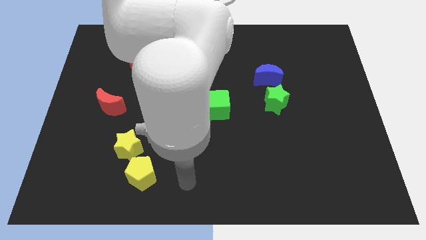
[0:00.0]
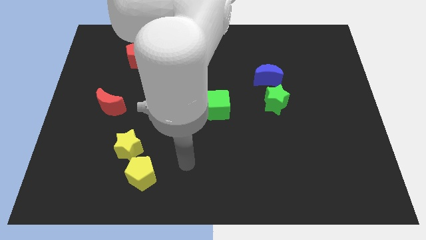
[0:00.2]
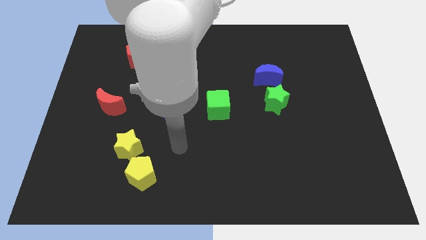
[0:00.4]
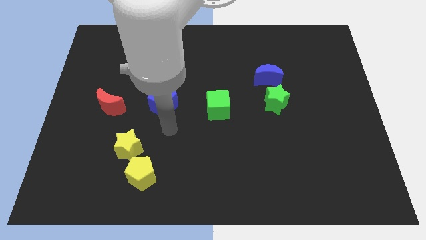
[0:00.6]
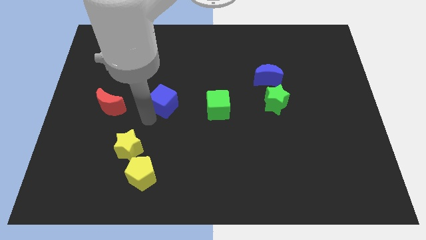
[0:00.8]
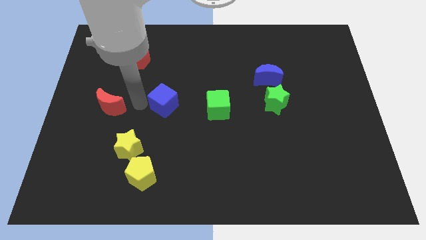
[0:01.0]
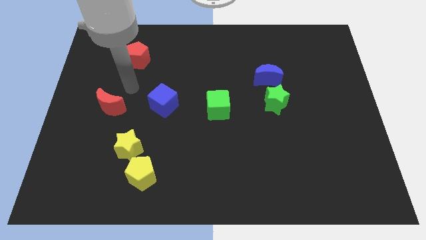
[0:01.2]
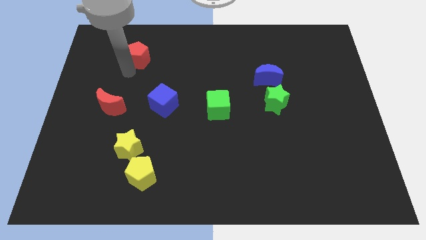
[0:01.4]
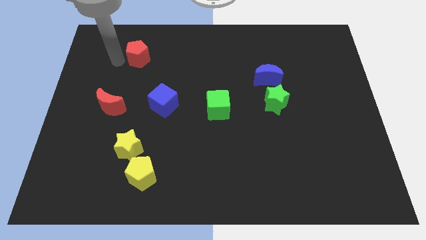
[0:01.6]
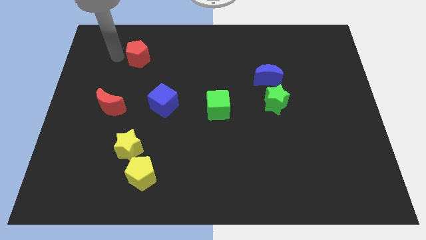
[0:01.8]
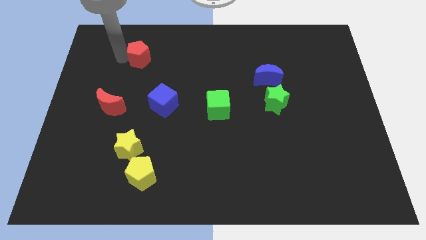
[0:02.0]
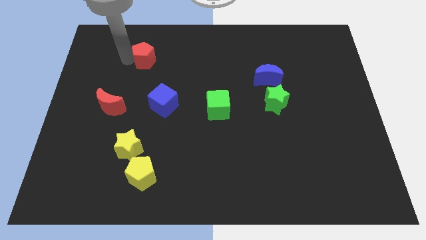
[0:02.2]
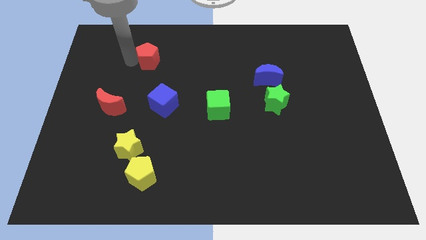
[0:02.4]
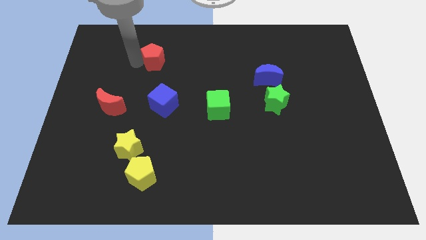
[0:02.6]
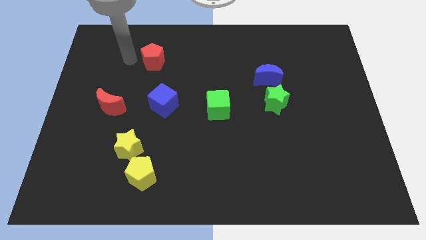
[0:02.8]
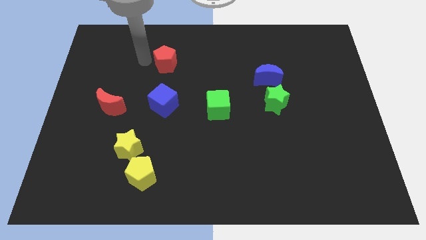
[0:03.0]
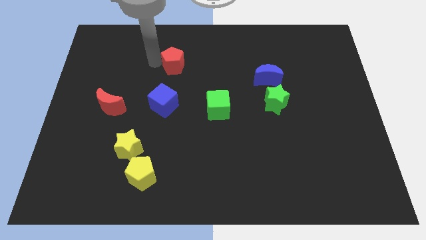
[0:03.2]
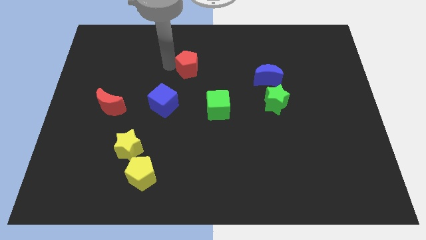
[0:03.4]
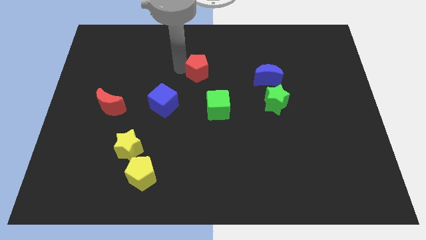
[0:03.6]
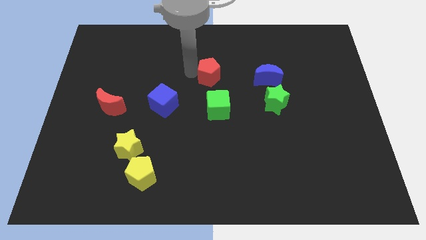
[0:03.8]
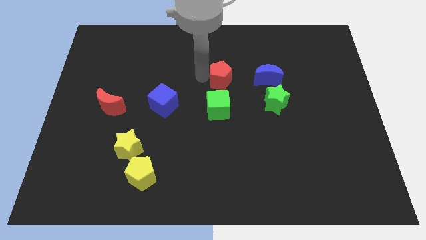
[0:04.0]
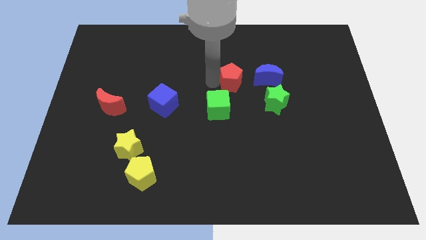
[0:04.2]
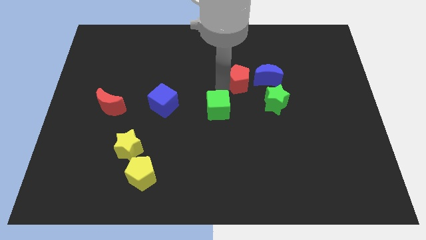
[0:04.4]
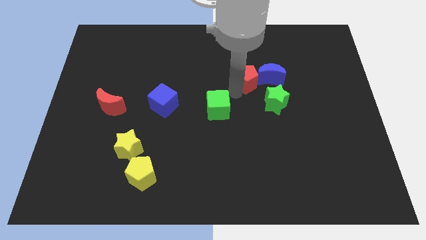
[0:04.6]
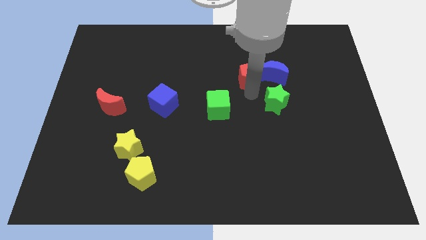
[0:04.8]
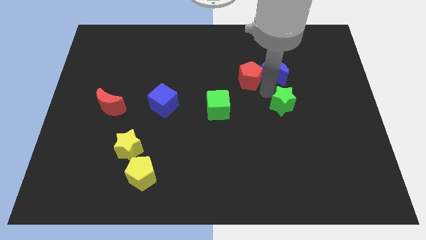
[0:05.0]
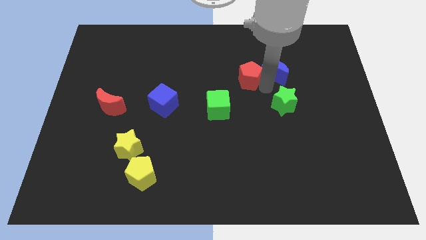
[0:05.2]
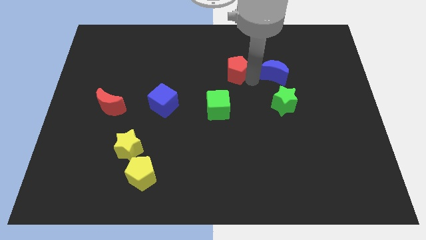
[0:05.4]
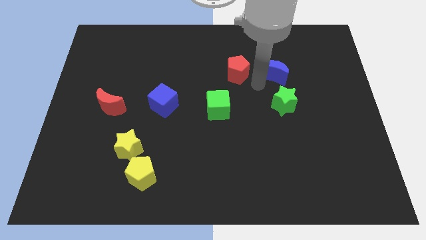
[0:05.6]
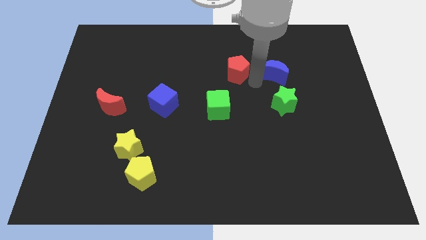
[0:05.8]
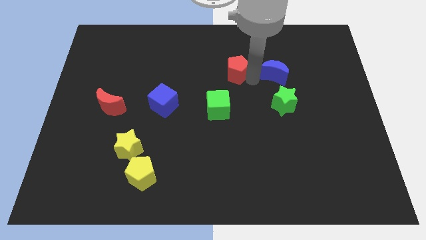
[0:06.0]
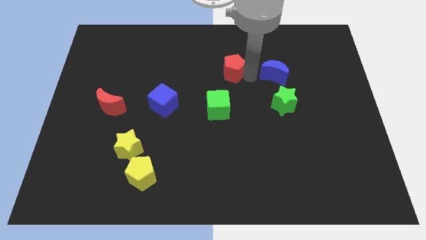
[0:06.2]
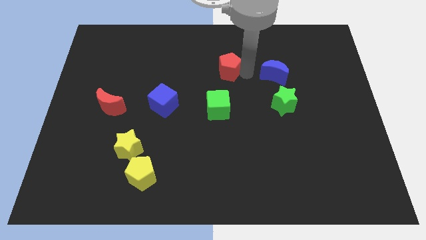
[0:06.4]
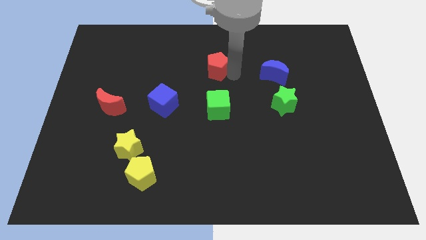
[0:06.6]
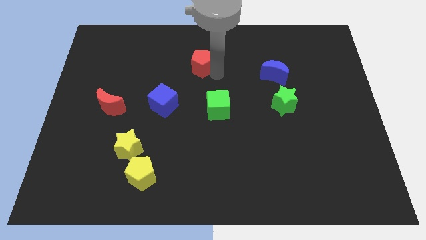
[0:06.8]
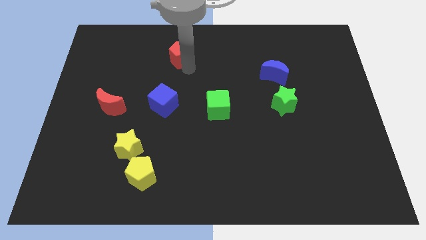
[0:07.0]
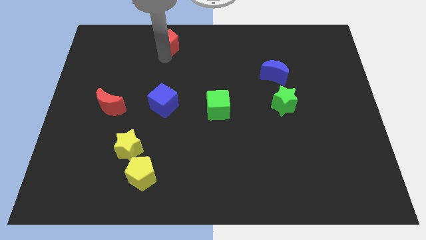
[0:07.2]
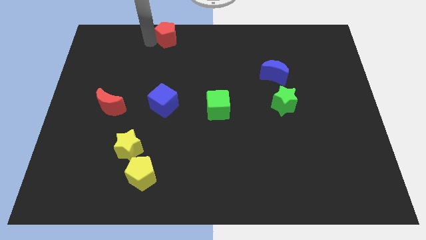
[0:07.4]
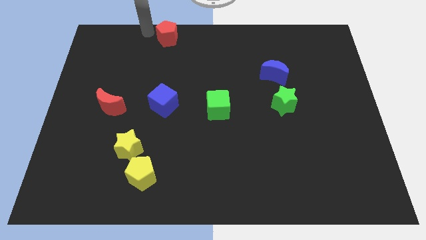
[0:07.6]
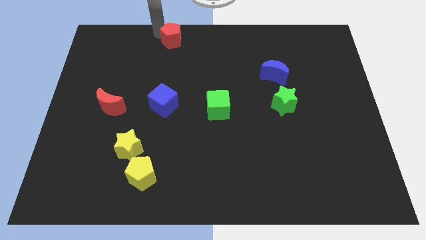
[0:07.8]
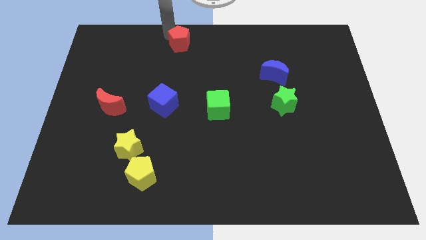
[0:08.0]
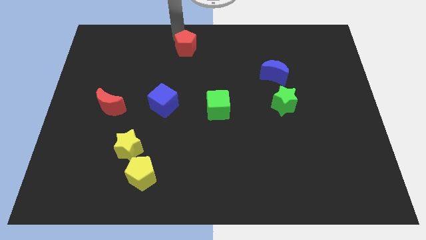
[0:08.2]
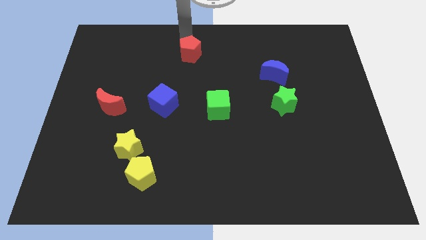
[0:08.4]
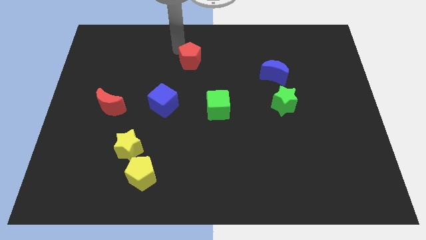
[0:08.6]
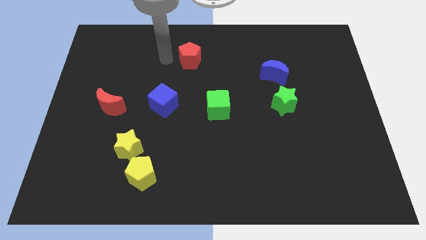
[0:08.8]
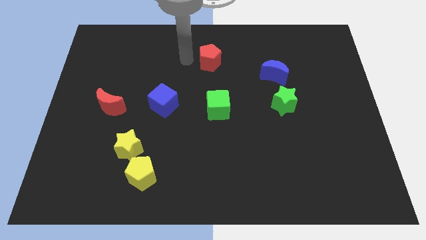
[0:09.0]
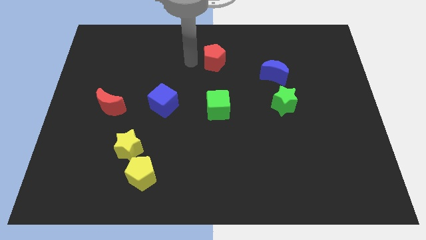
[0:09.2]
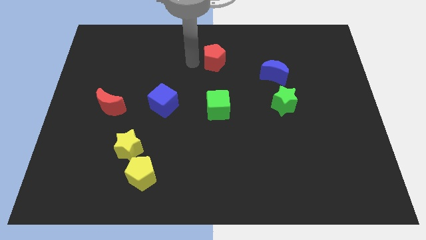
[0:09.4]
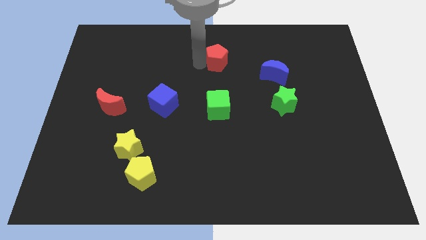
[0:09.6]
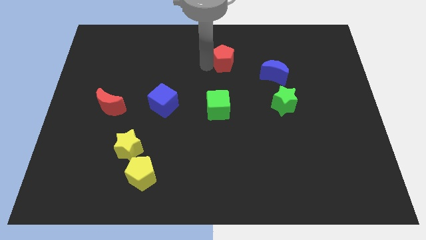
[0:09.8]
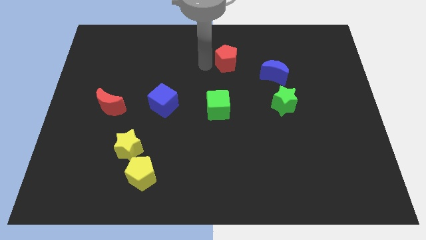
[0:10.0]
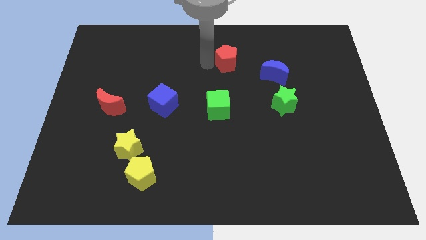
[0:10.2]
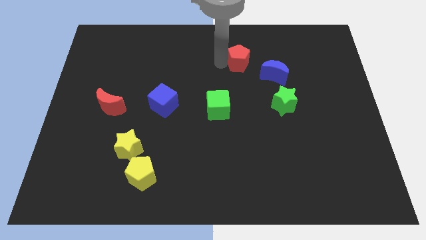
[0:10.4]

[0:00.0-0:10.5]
push the red pentagon to the top left of the blue moon

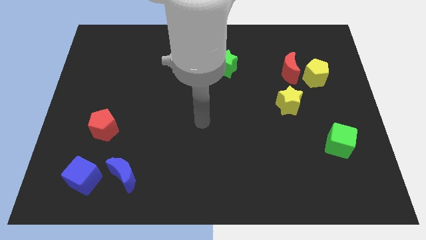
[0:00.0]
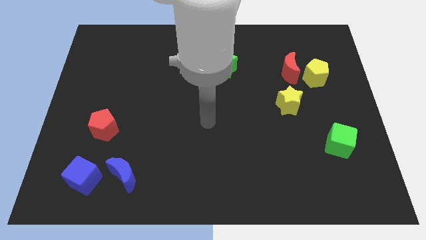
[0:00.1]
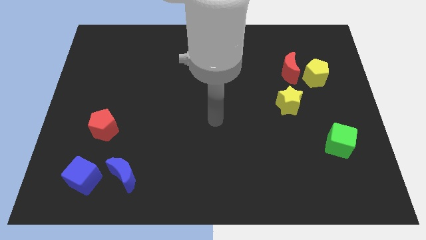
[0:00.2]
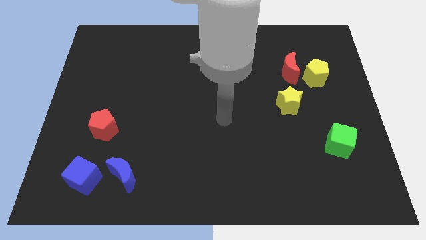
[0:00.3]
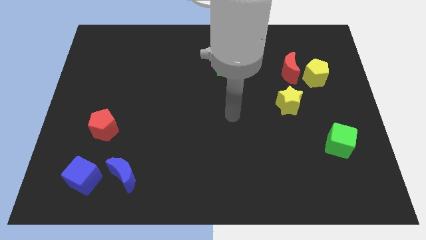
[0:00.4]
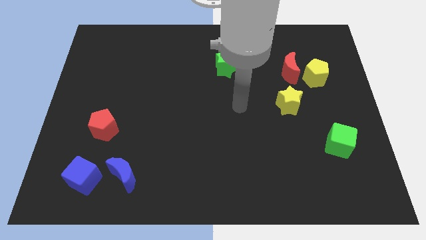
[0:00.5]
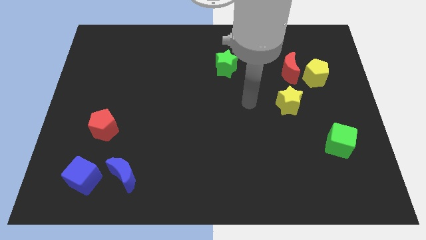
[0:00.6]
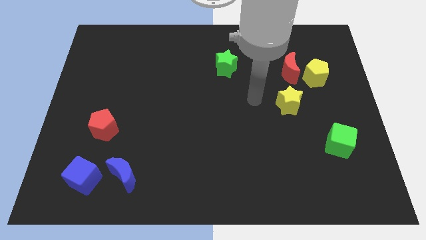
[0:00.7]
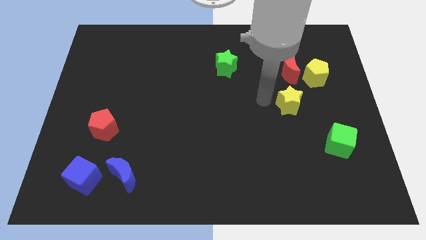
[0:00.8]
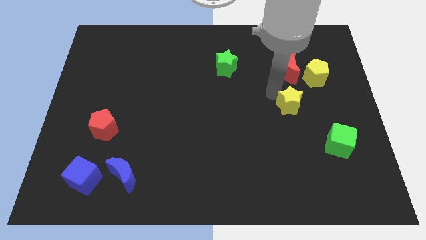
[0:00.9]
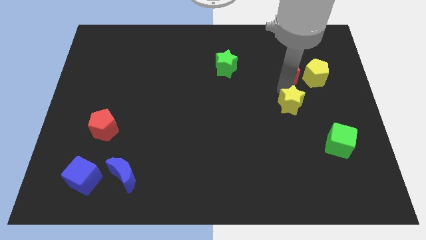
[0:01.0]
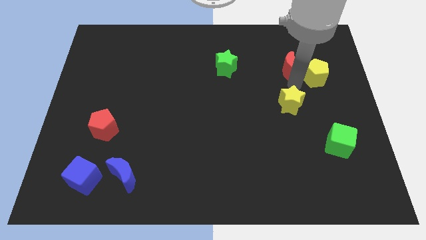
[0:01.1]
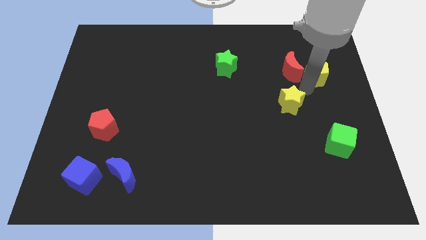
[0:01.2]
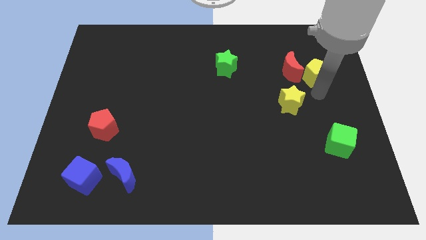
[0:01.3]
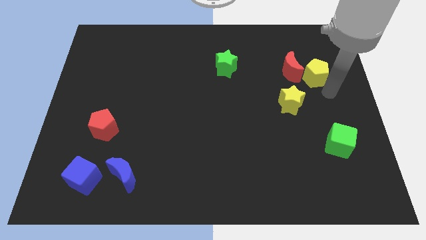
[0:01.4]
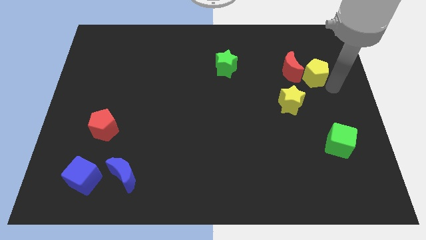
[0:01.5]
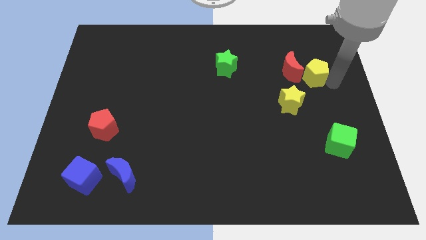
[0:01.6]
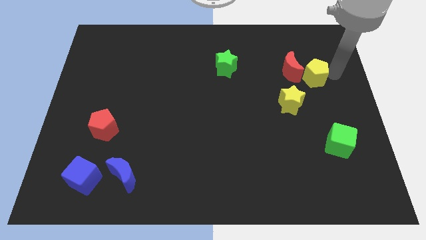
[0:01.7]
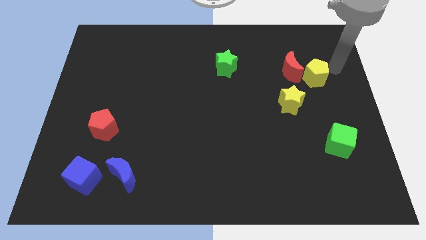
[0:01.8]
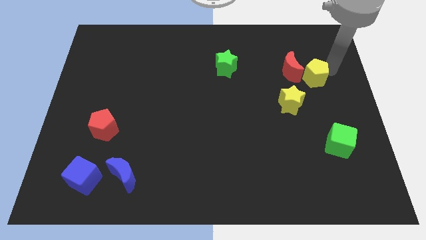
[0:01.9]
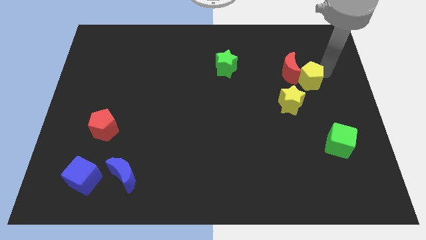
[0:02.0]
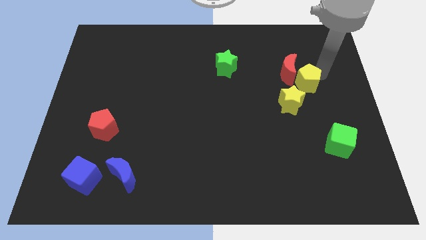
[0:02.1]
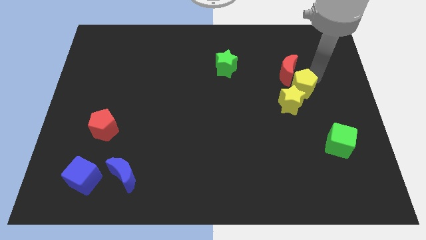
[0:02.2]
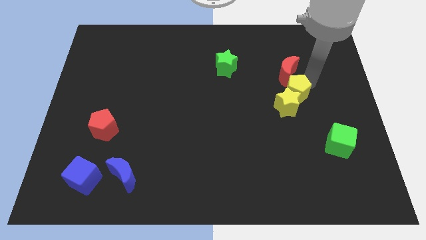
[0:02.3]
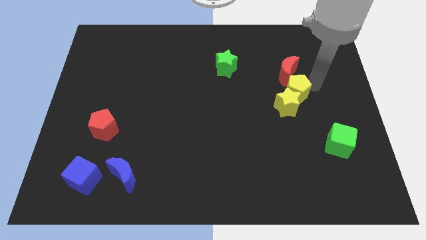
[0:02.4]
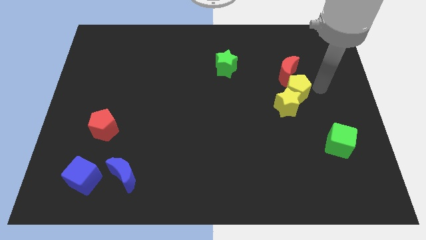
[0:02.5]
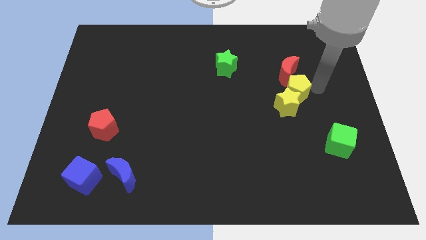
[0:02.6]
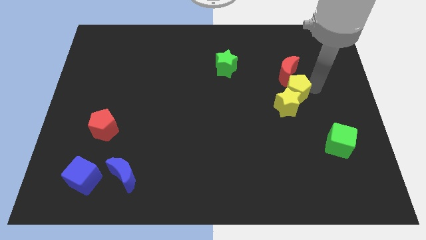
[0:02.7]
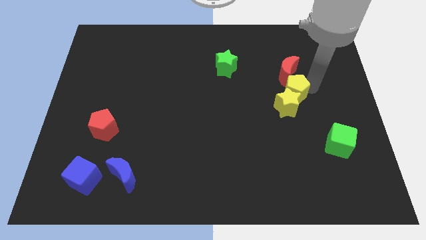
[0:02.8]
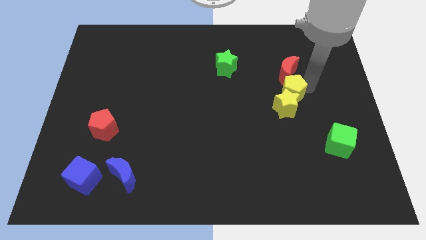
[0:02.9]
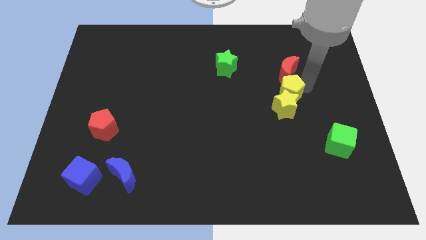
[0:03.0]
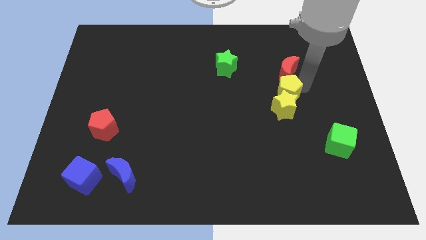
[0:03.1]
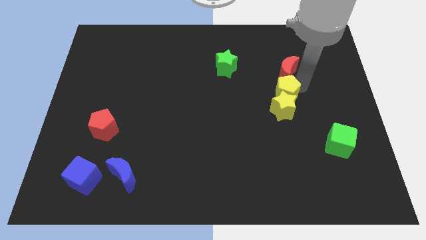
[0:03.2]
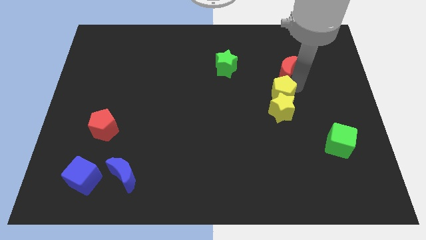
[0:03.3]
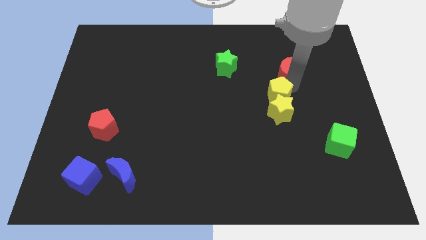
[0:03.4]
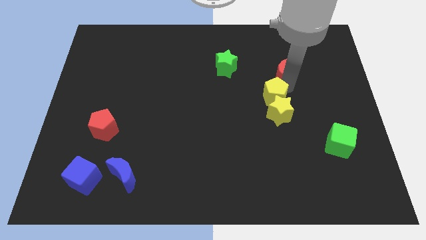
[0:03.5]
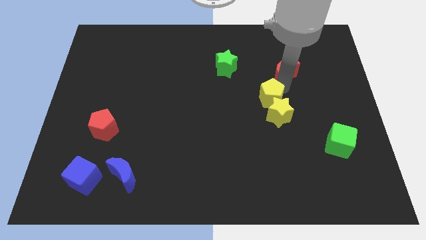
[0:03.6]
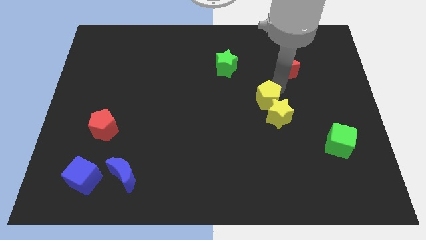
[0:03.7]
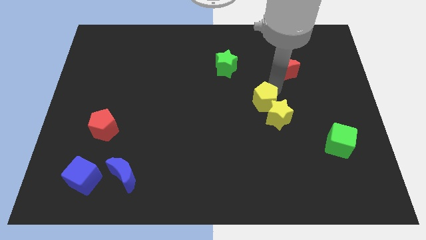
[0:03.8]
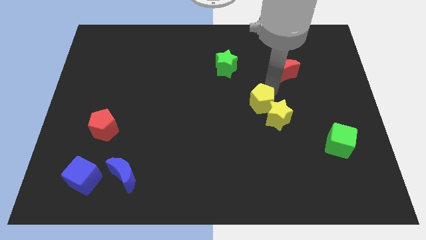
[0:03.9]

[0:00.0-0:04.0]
put the yellow pentagon left of the yellow star
